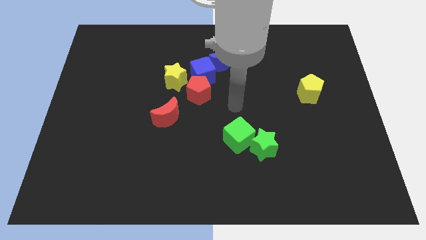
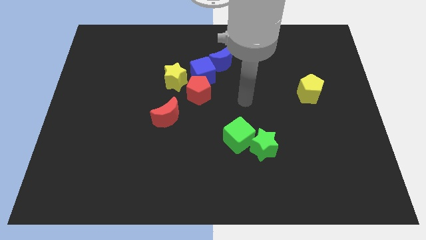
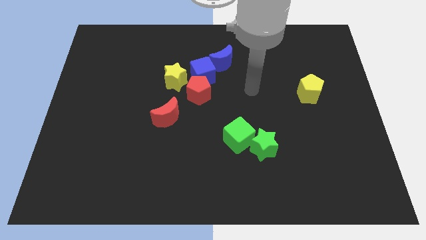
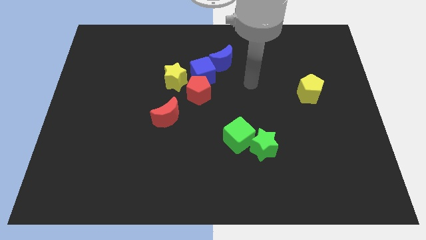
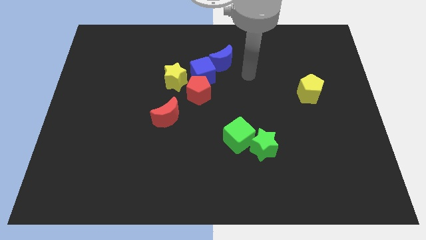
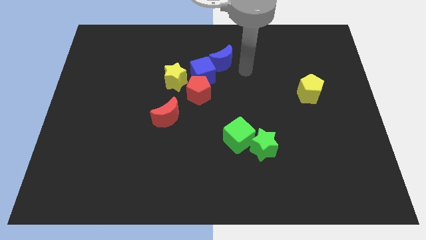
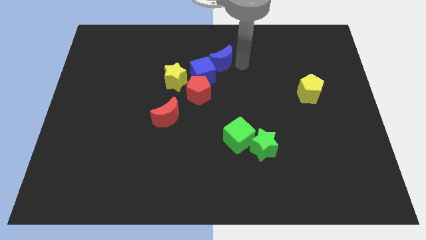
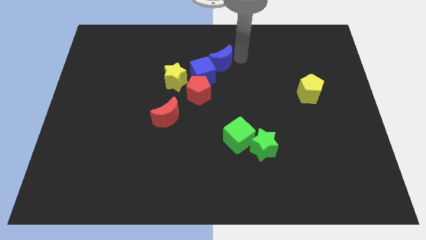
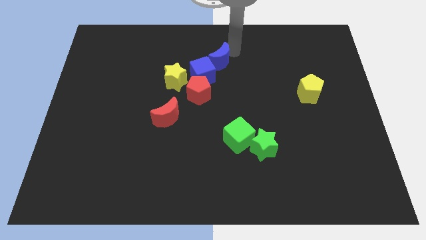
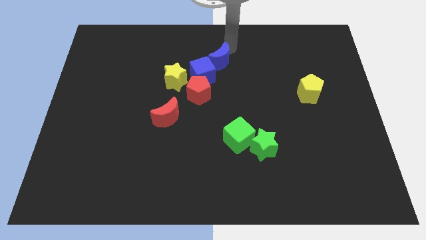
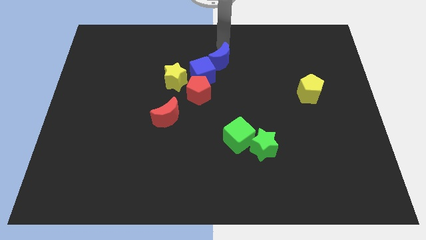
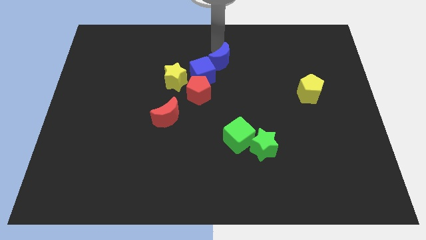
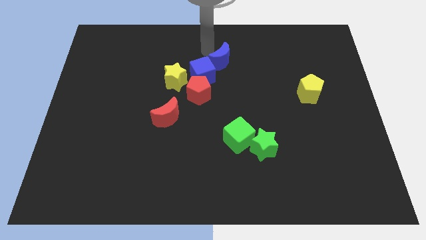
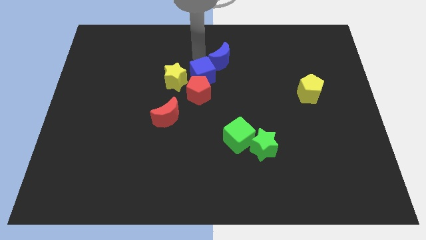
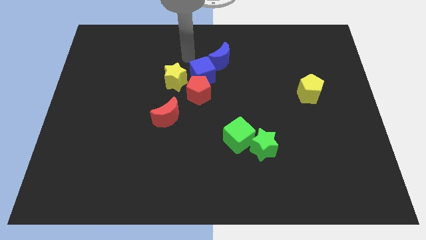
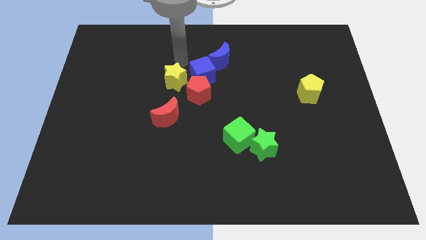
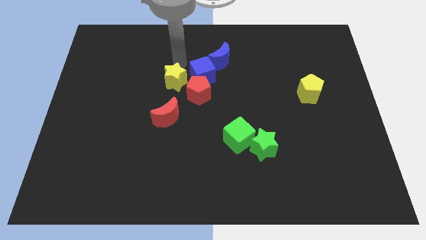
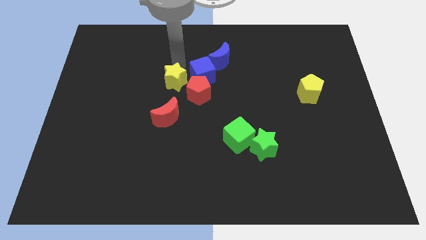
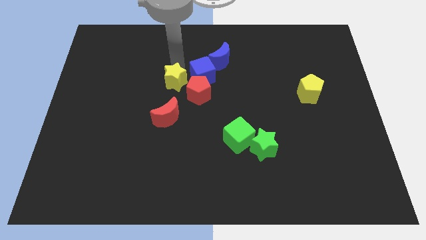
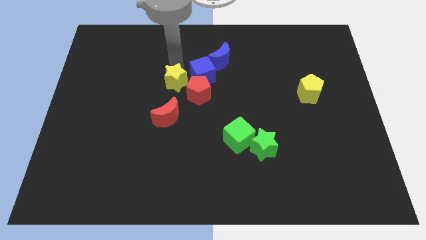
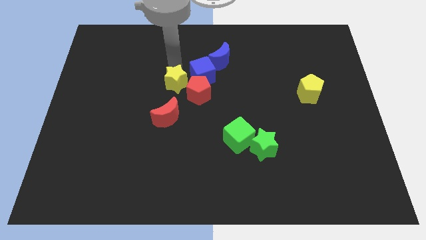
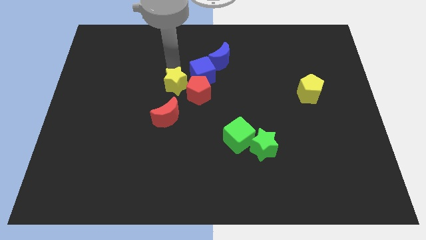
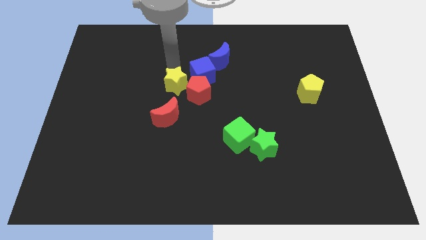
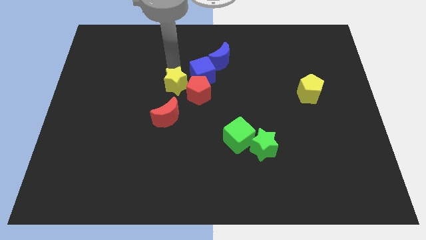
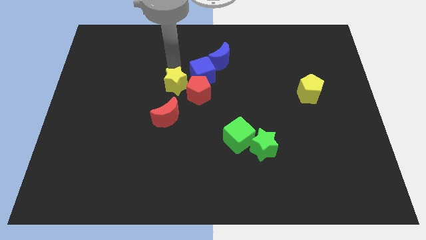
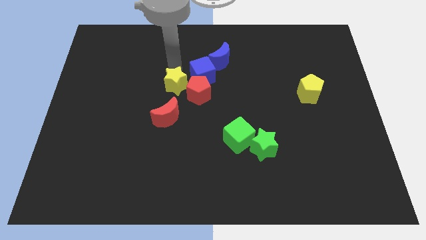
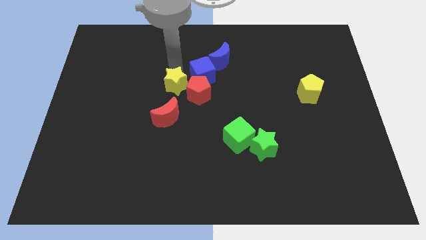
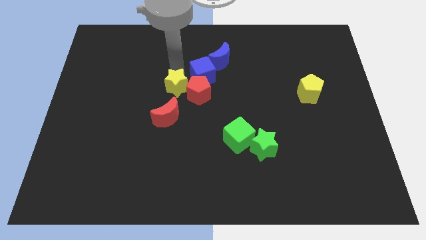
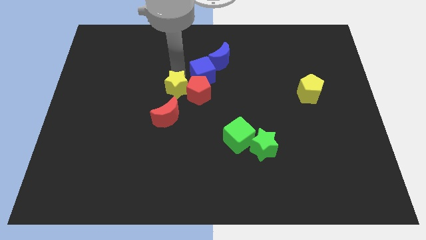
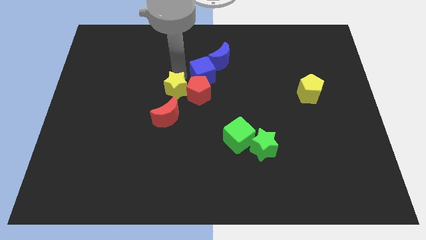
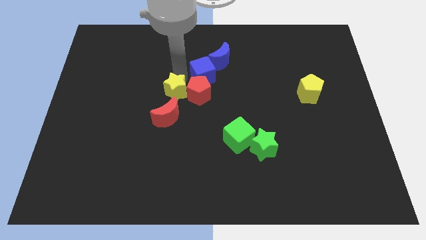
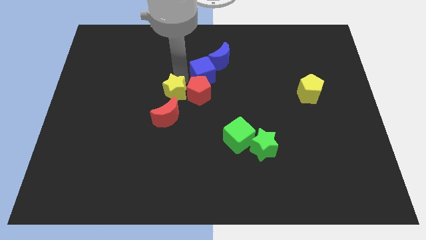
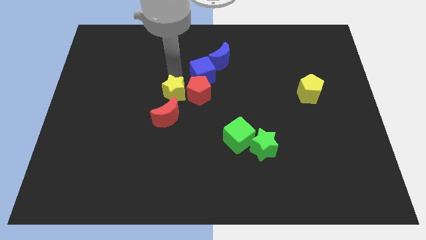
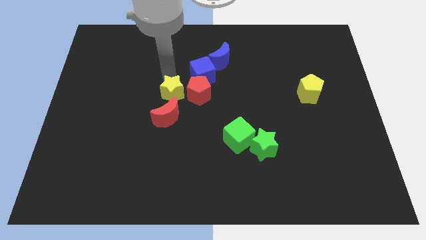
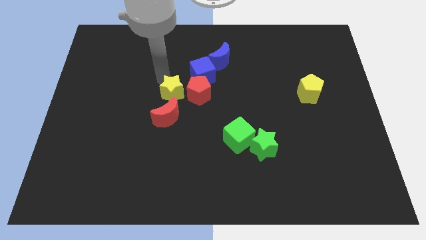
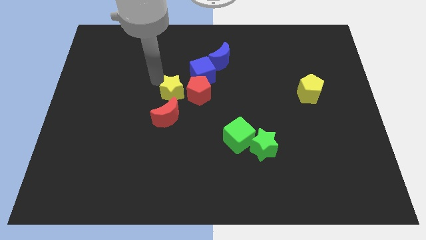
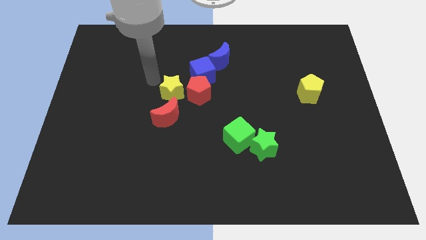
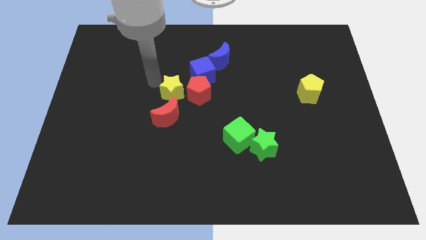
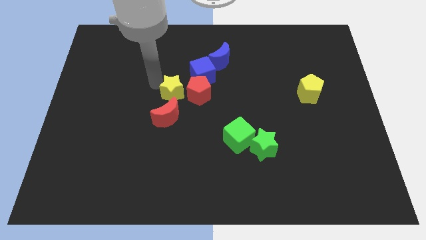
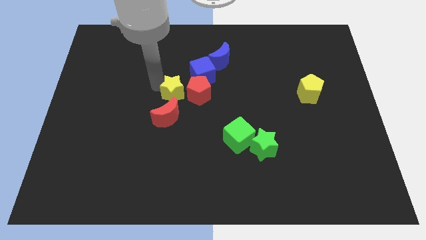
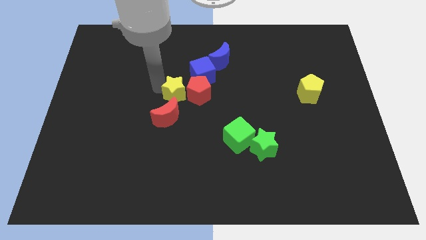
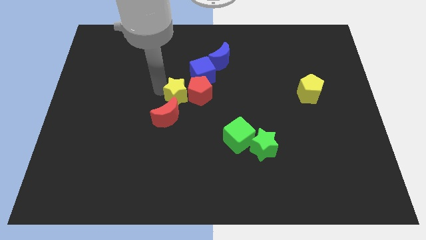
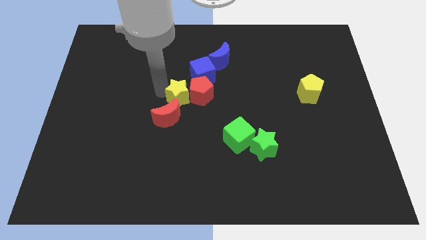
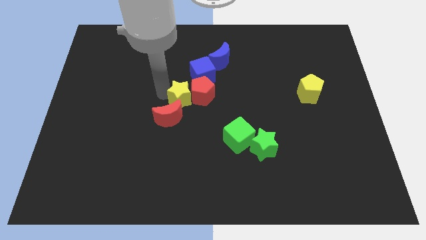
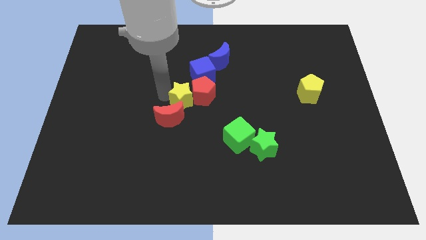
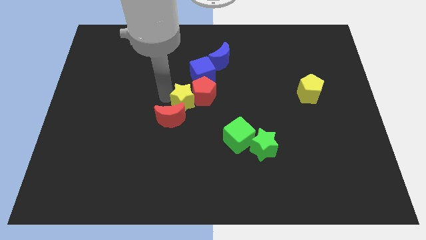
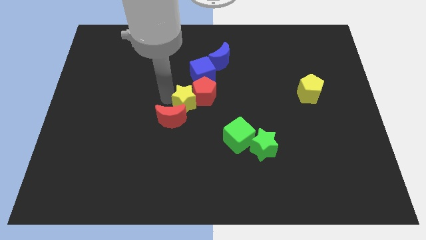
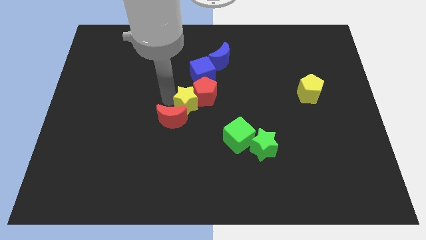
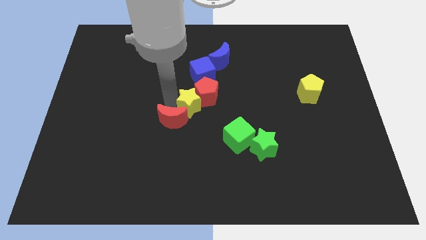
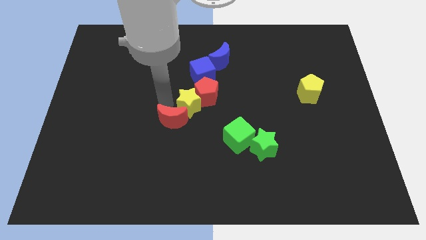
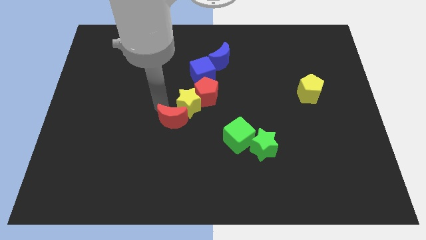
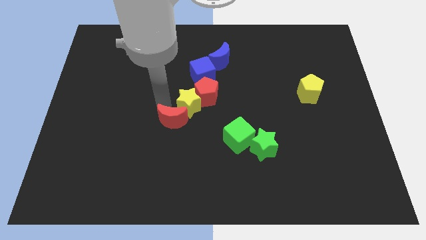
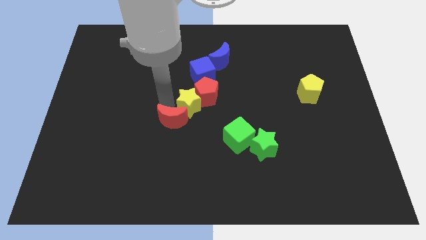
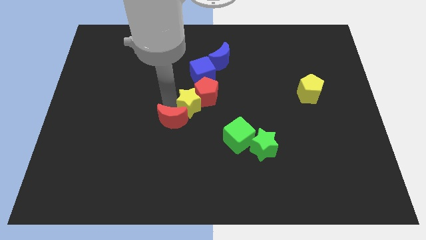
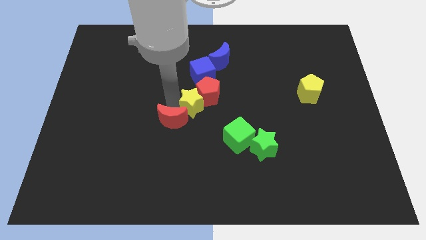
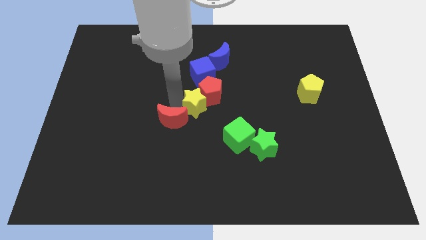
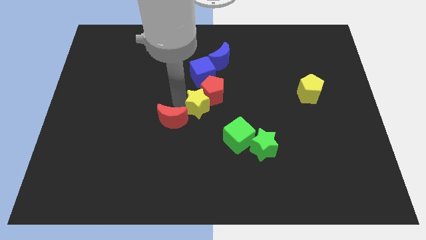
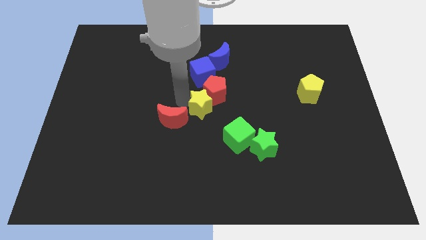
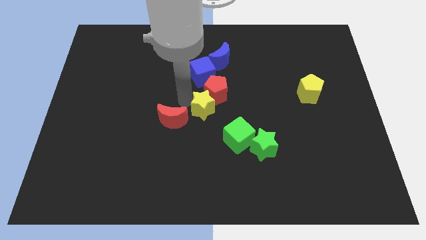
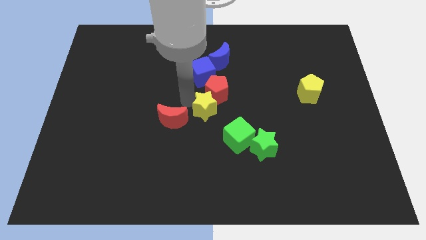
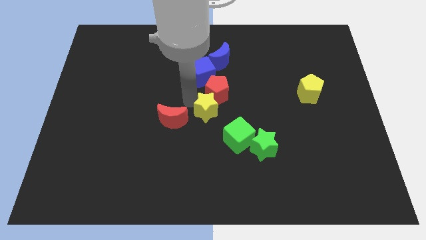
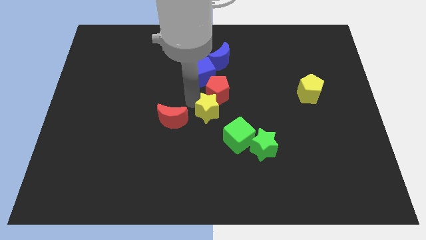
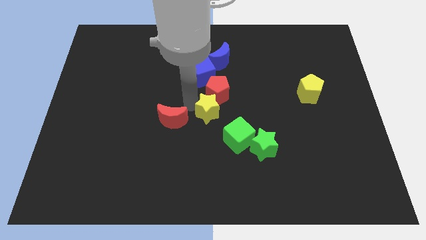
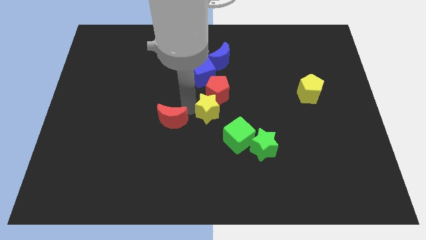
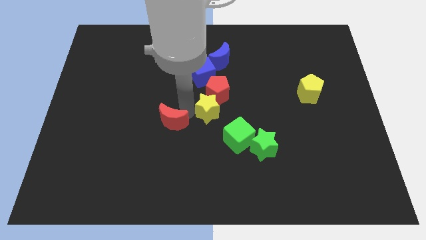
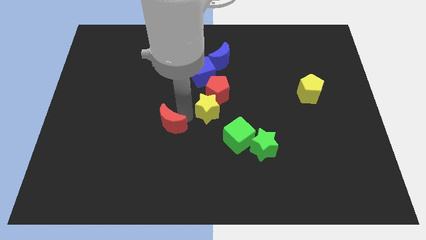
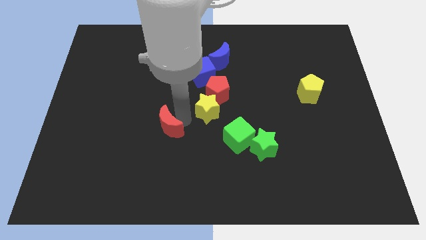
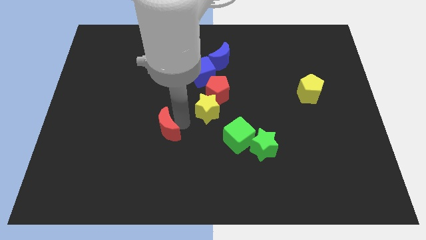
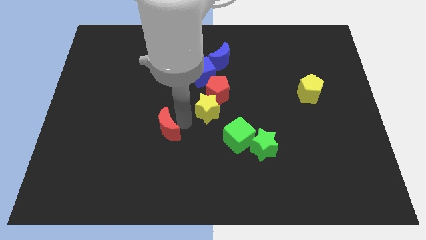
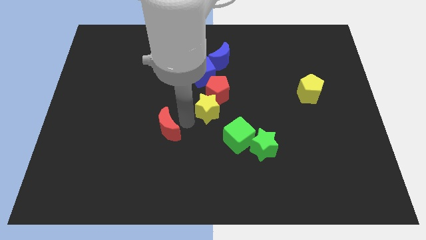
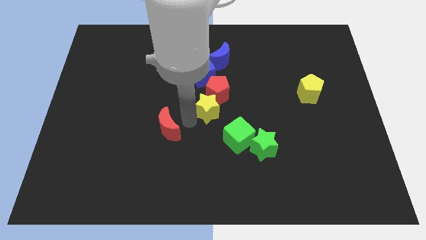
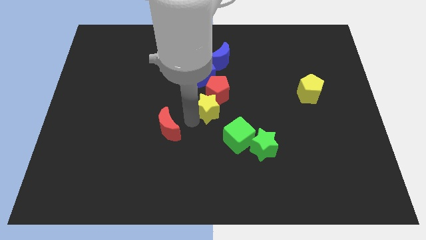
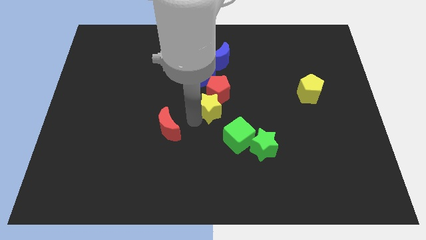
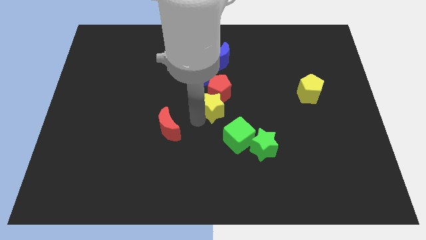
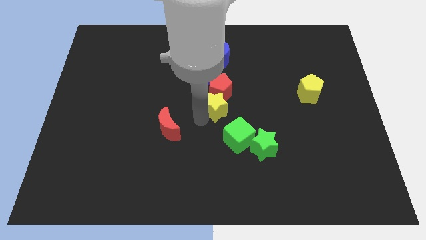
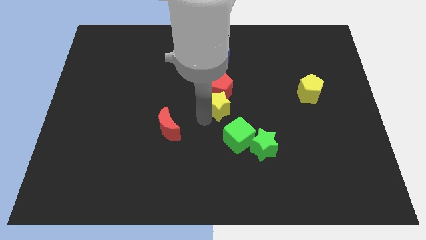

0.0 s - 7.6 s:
move the yellow star above the green cube
